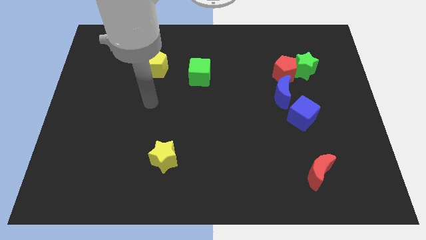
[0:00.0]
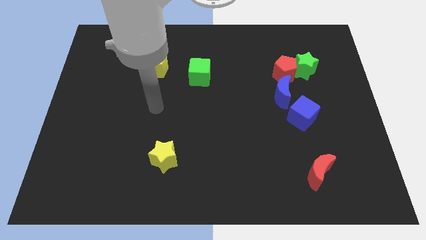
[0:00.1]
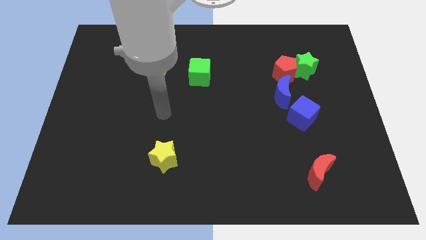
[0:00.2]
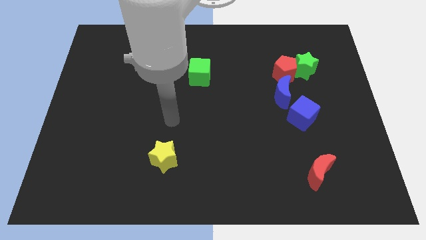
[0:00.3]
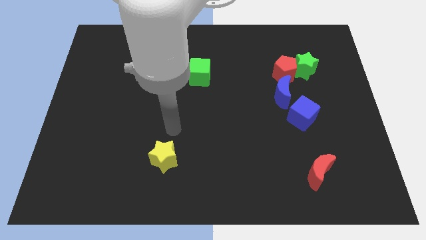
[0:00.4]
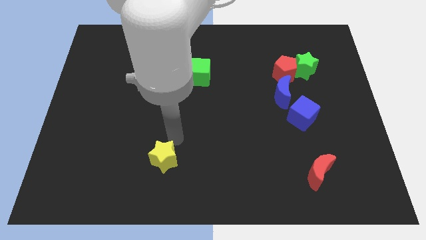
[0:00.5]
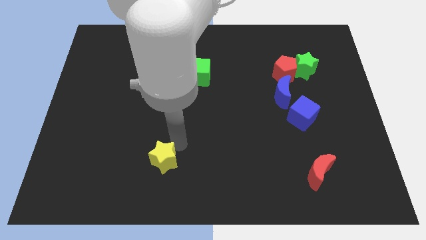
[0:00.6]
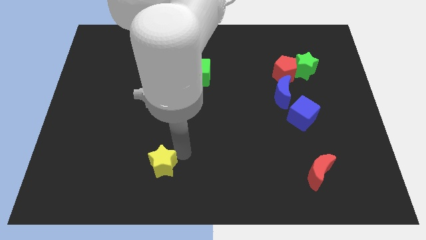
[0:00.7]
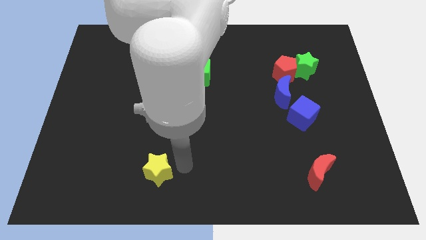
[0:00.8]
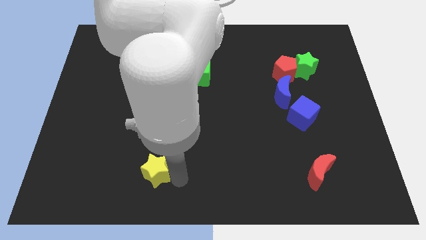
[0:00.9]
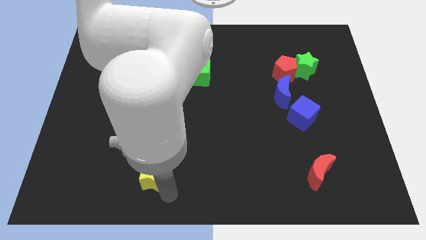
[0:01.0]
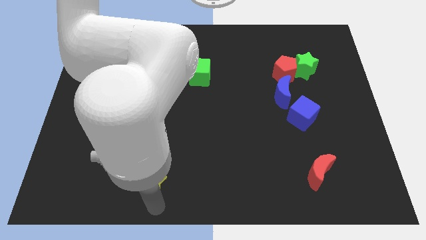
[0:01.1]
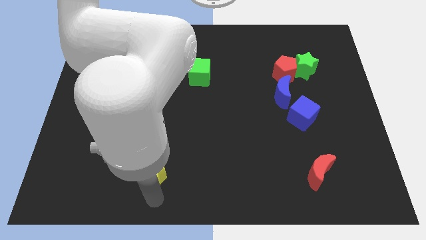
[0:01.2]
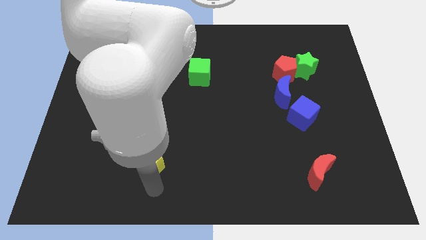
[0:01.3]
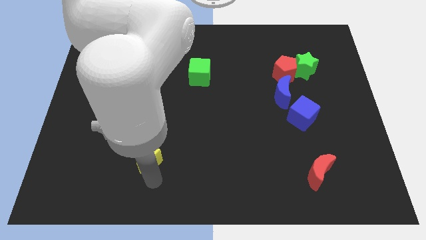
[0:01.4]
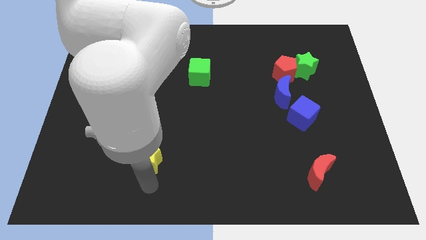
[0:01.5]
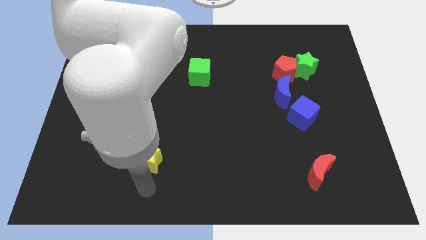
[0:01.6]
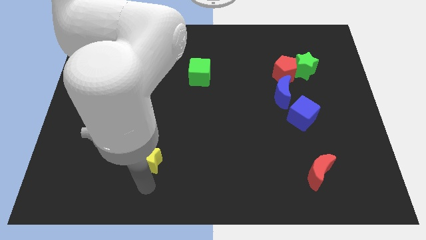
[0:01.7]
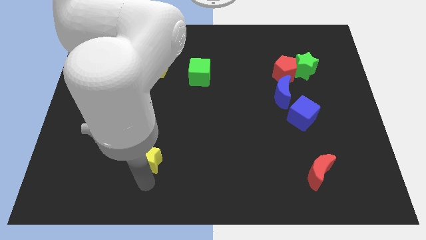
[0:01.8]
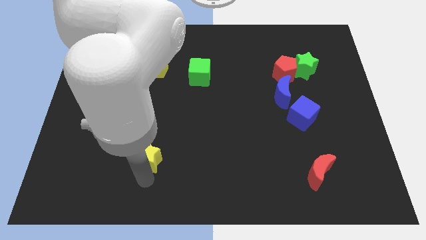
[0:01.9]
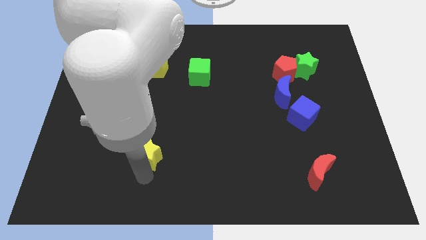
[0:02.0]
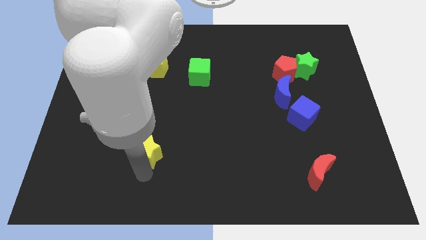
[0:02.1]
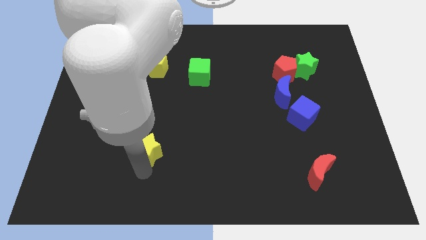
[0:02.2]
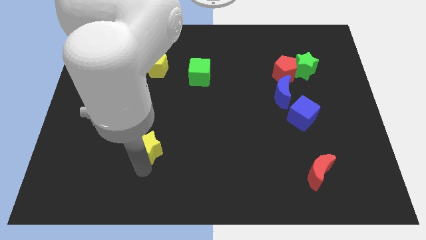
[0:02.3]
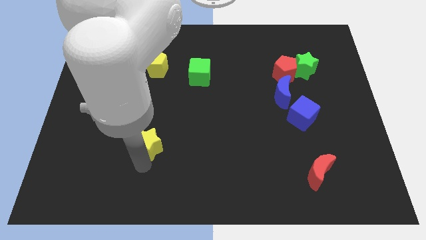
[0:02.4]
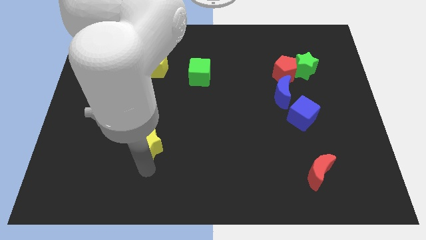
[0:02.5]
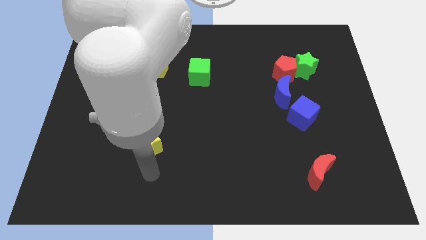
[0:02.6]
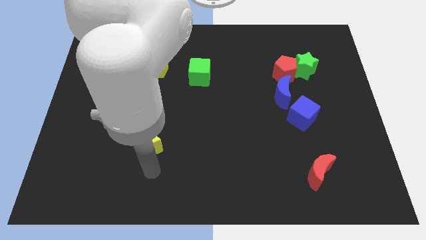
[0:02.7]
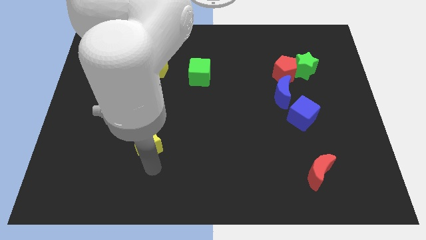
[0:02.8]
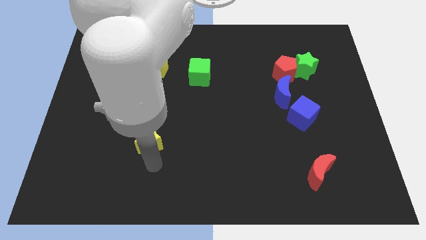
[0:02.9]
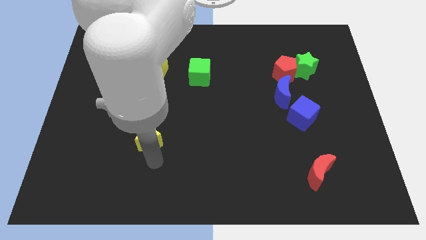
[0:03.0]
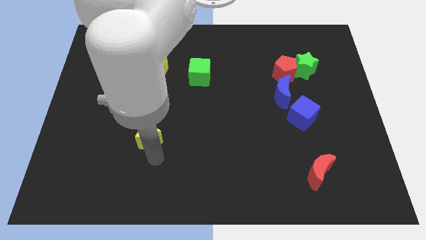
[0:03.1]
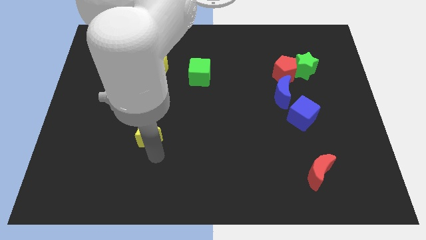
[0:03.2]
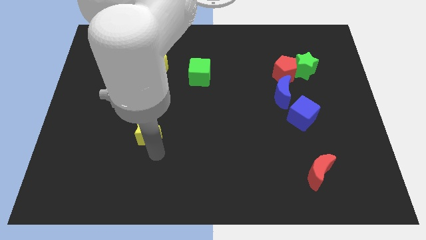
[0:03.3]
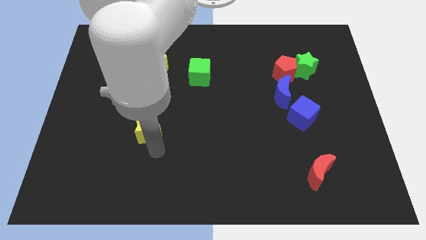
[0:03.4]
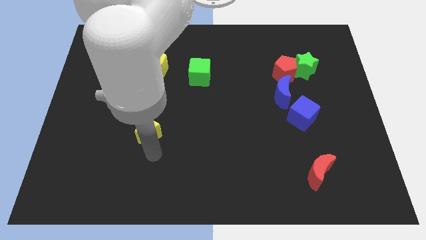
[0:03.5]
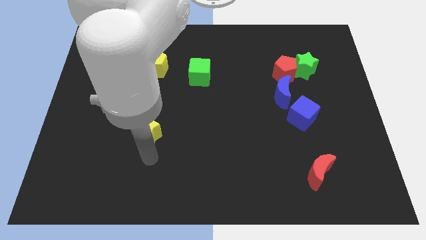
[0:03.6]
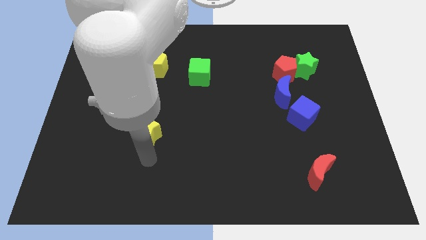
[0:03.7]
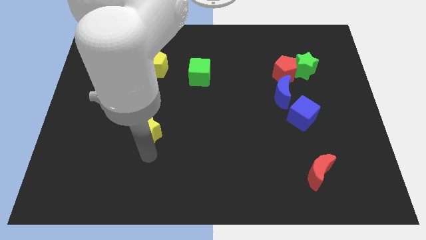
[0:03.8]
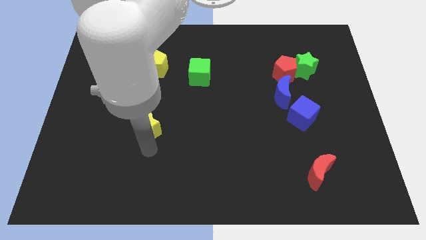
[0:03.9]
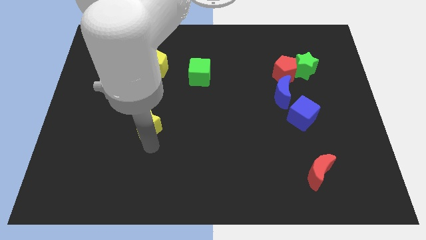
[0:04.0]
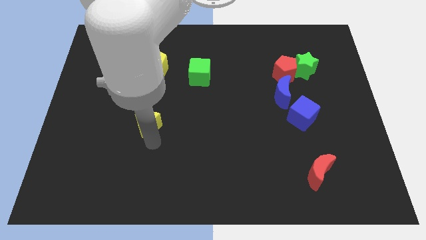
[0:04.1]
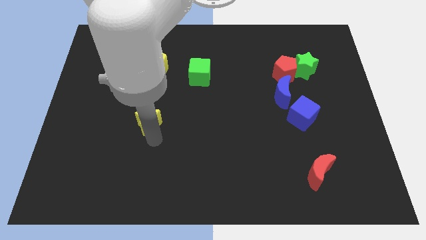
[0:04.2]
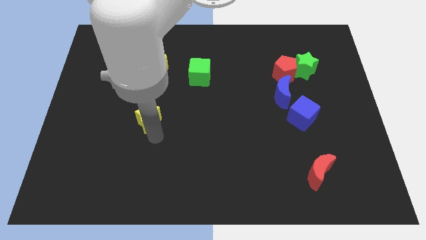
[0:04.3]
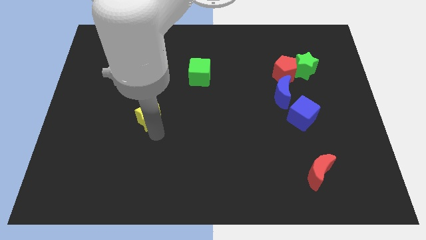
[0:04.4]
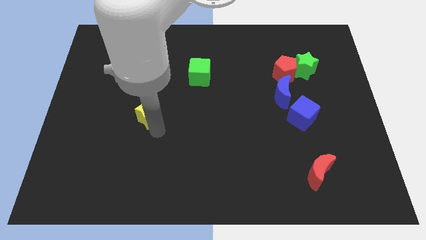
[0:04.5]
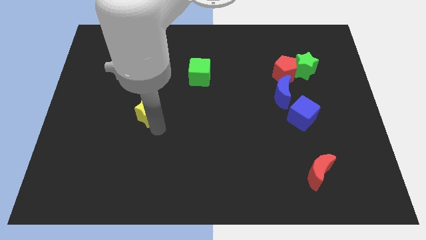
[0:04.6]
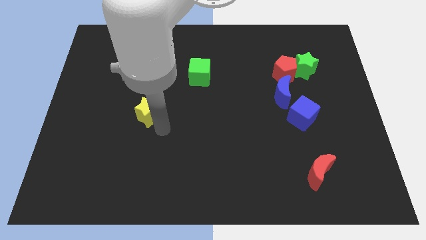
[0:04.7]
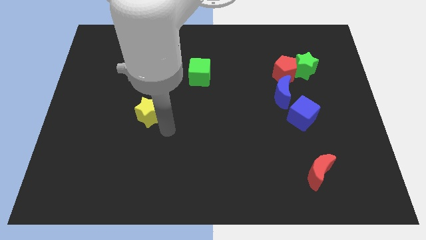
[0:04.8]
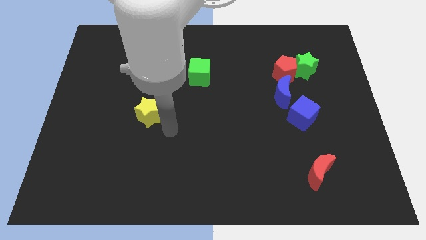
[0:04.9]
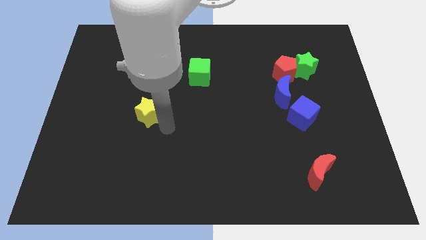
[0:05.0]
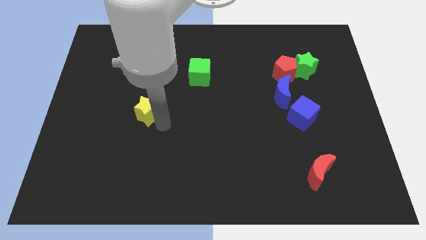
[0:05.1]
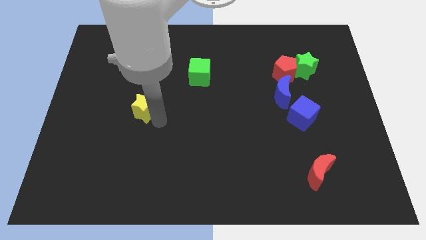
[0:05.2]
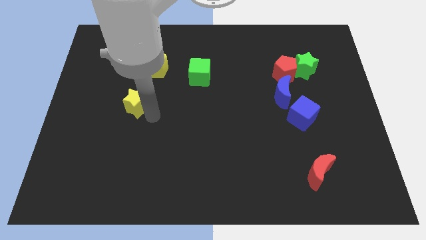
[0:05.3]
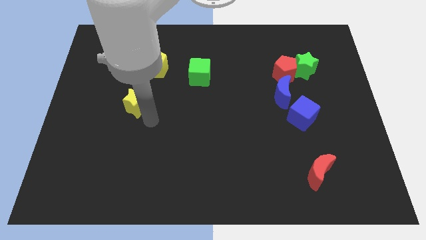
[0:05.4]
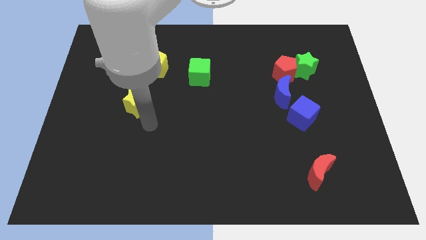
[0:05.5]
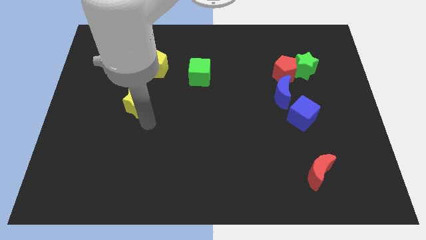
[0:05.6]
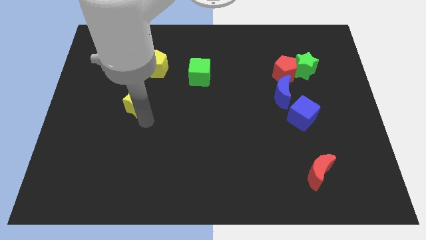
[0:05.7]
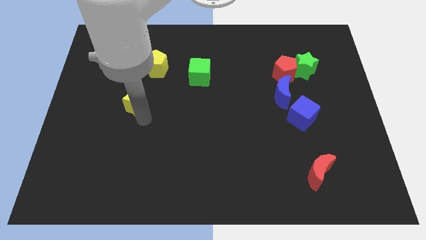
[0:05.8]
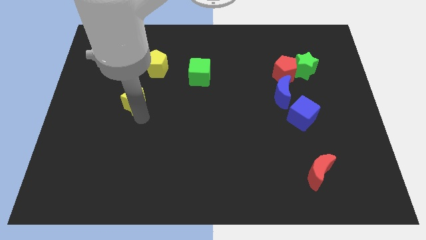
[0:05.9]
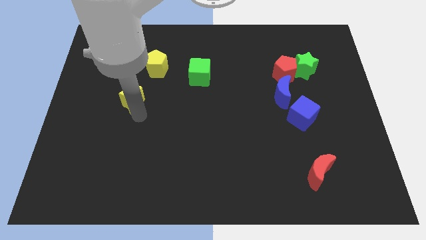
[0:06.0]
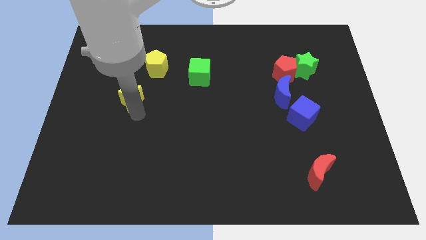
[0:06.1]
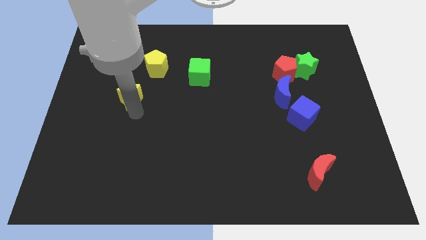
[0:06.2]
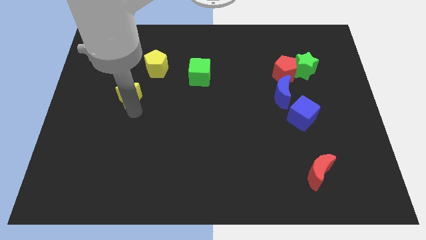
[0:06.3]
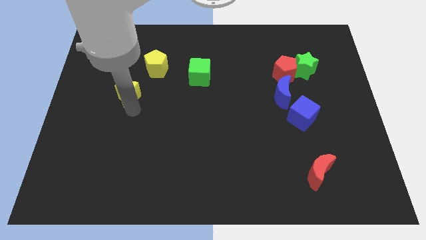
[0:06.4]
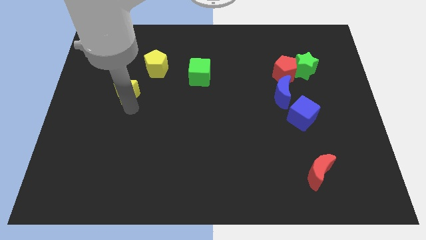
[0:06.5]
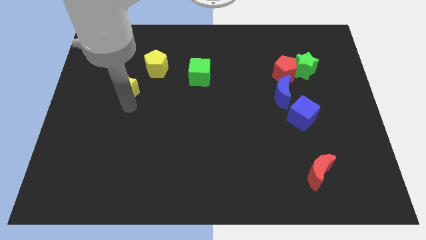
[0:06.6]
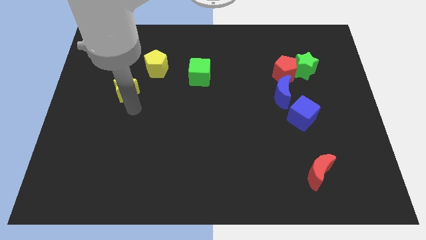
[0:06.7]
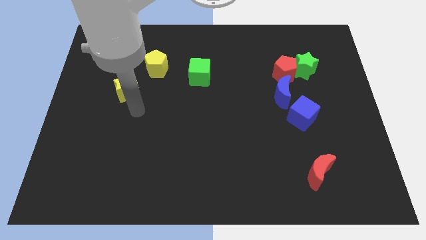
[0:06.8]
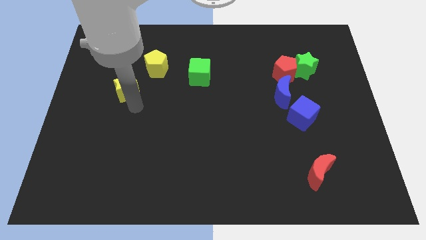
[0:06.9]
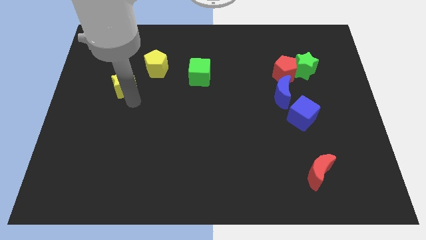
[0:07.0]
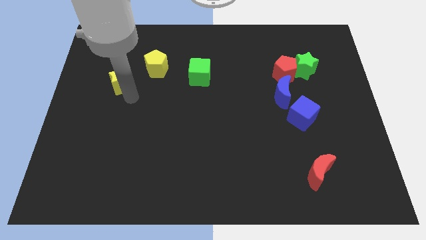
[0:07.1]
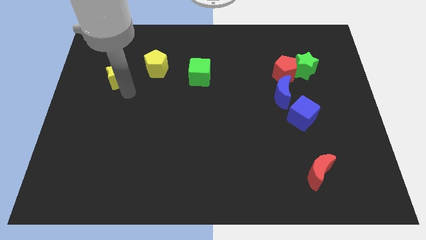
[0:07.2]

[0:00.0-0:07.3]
move the yellow star just left of the yellow pentagon
